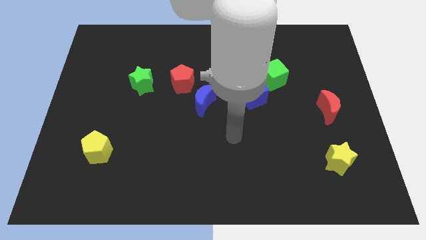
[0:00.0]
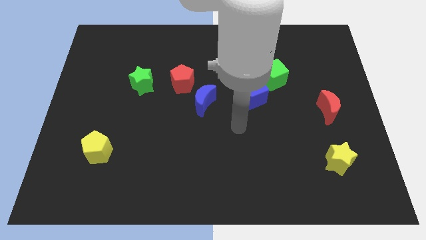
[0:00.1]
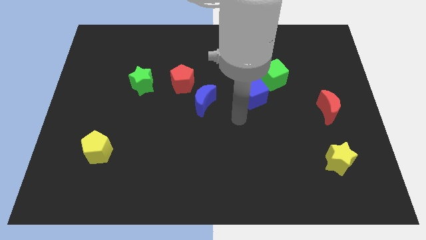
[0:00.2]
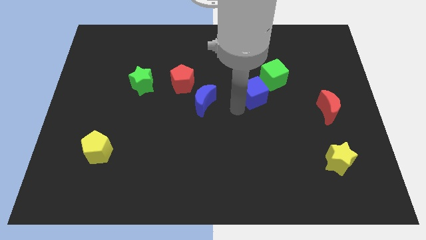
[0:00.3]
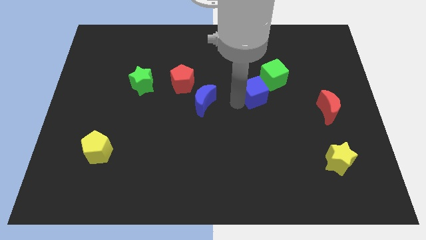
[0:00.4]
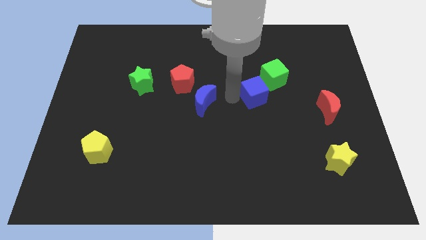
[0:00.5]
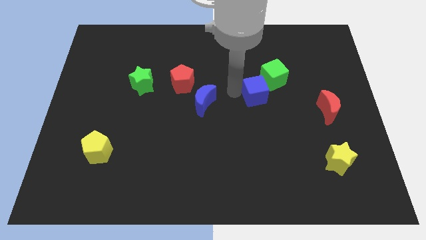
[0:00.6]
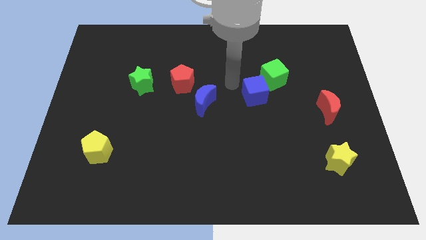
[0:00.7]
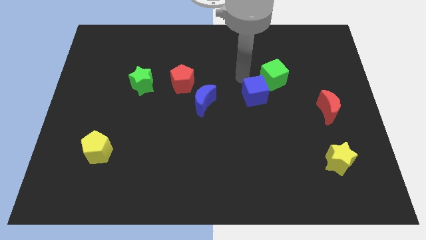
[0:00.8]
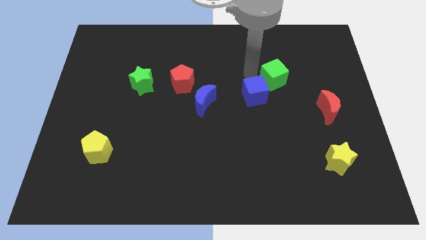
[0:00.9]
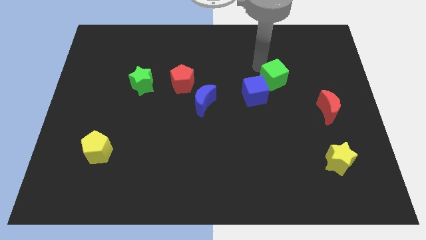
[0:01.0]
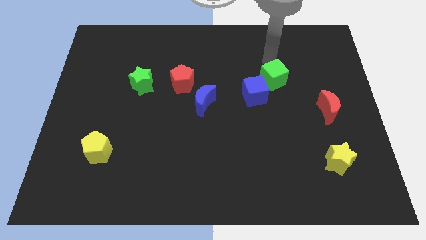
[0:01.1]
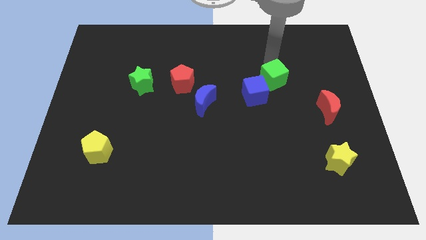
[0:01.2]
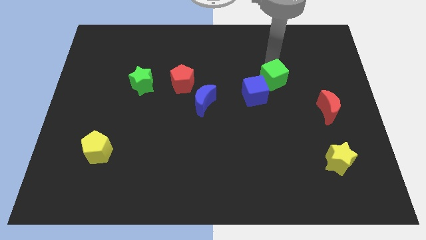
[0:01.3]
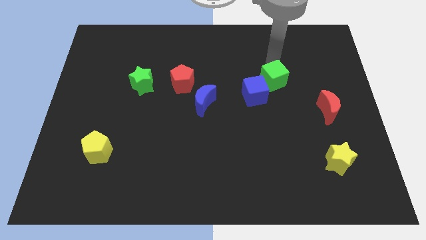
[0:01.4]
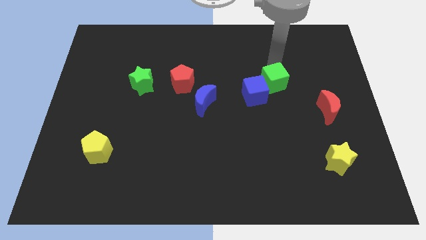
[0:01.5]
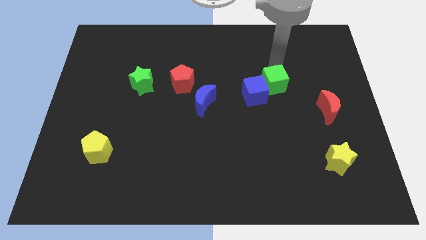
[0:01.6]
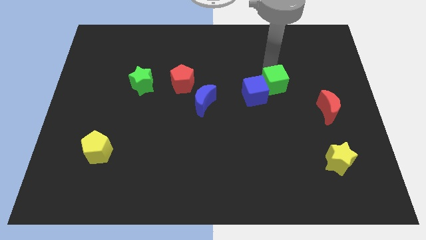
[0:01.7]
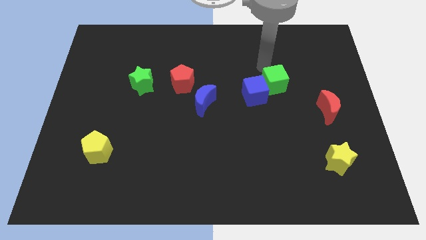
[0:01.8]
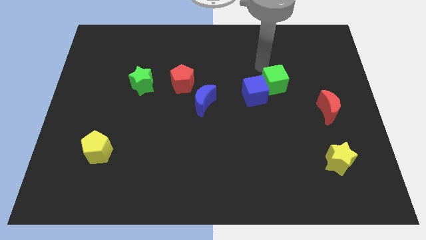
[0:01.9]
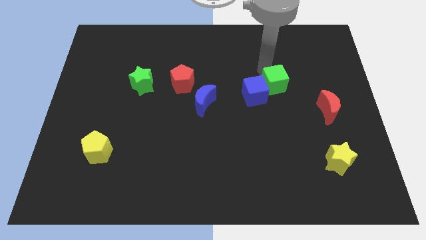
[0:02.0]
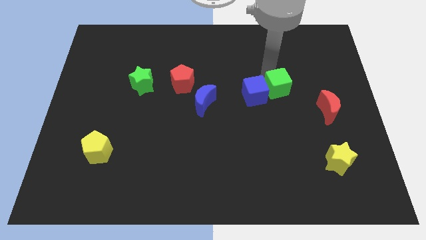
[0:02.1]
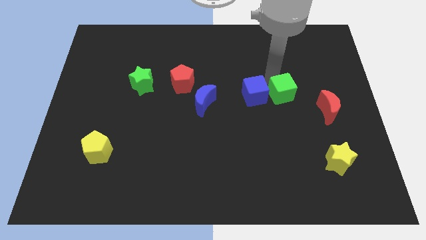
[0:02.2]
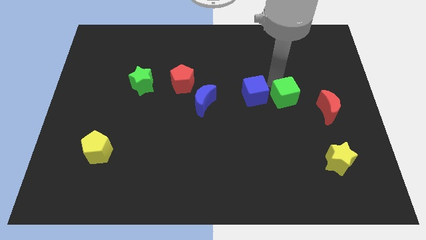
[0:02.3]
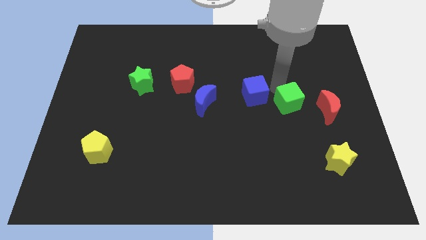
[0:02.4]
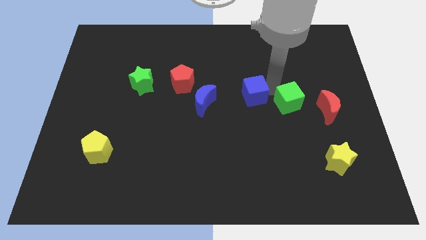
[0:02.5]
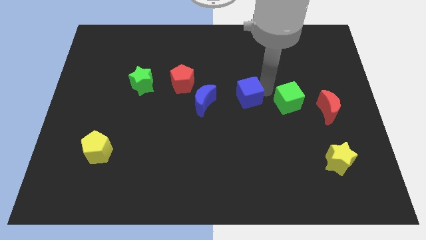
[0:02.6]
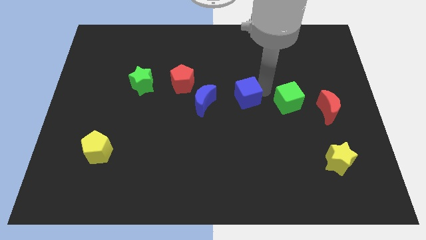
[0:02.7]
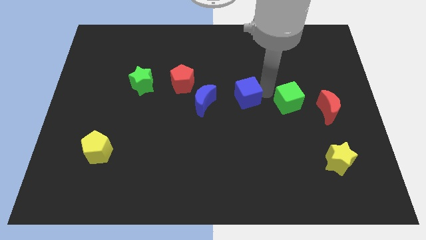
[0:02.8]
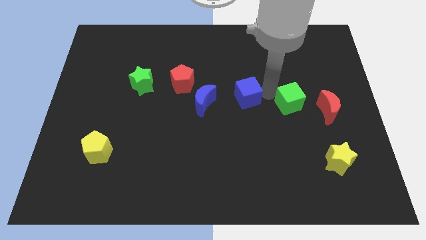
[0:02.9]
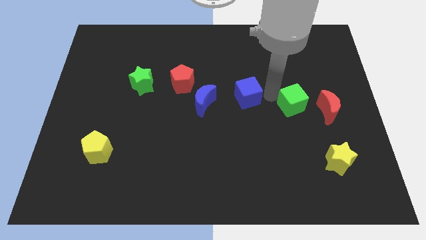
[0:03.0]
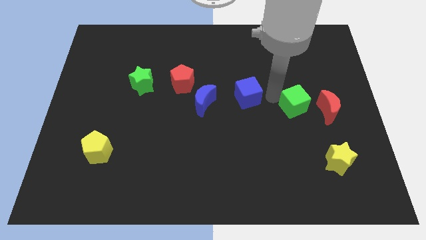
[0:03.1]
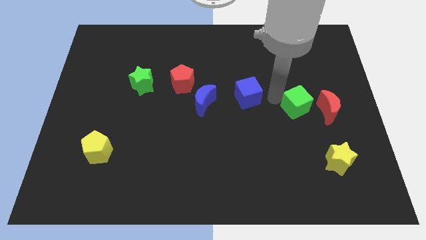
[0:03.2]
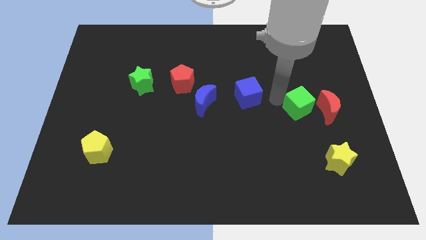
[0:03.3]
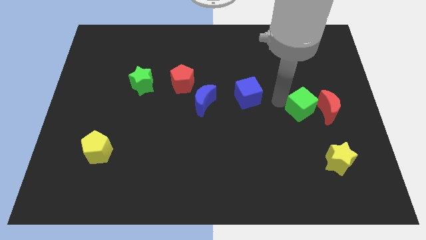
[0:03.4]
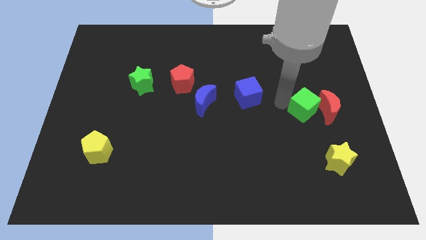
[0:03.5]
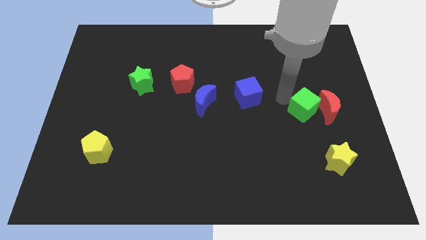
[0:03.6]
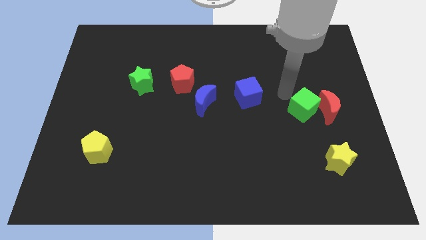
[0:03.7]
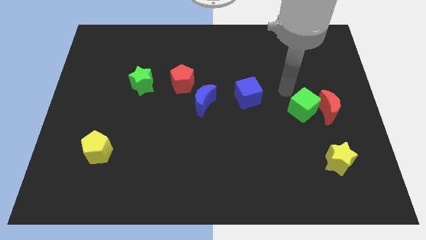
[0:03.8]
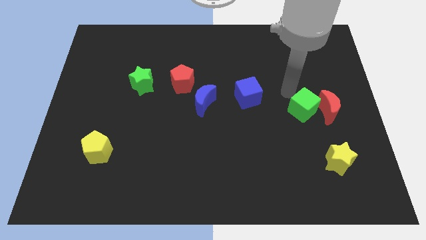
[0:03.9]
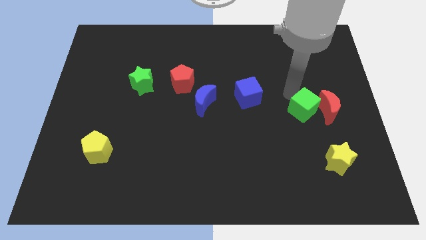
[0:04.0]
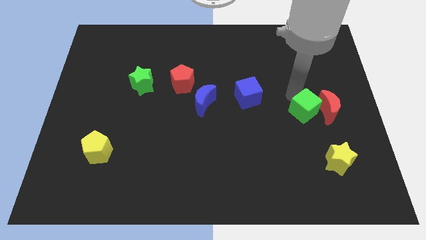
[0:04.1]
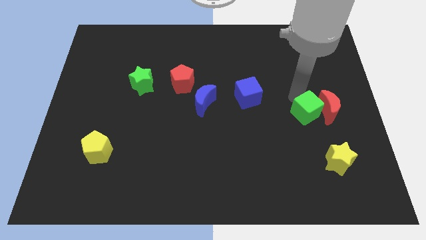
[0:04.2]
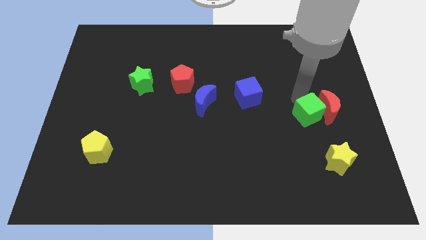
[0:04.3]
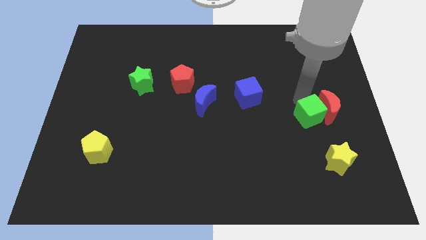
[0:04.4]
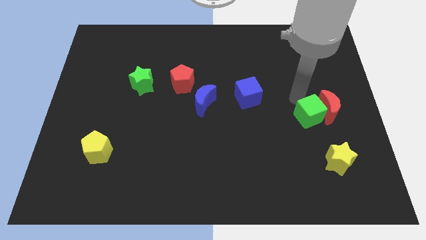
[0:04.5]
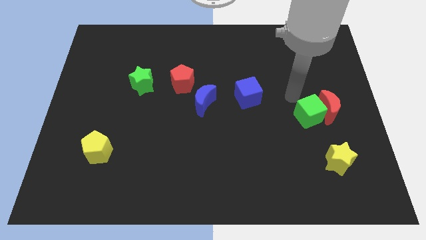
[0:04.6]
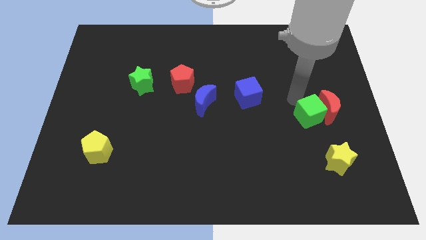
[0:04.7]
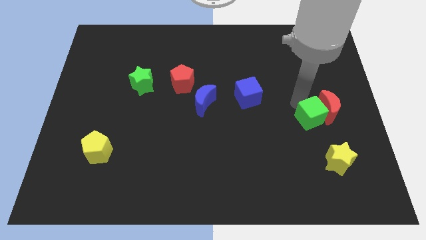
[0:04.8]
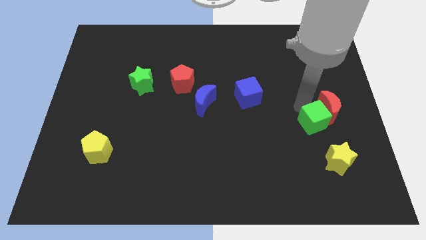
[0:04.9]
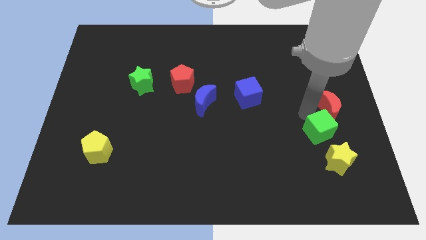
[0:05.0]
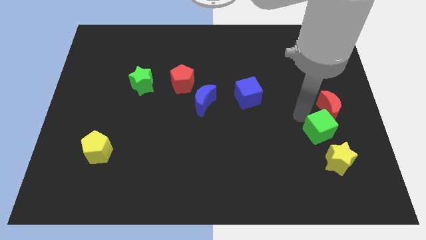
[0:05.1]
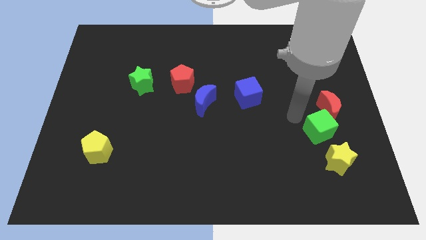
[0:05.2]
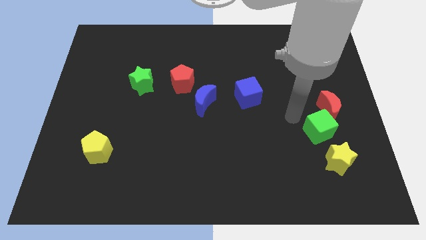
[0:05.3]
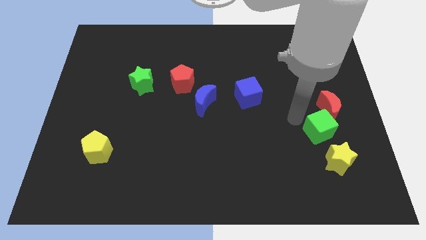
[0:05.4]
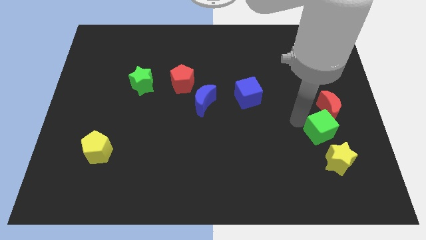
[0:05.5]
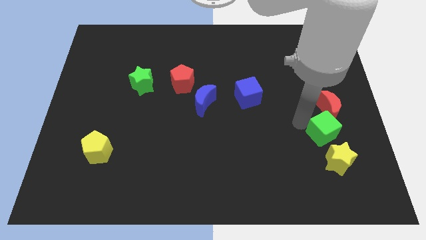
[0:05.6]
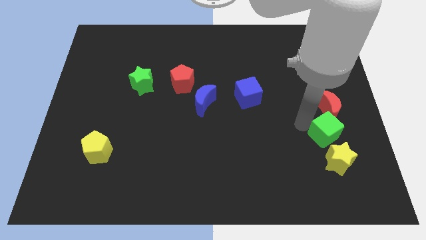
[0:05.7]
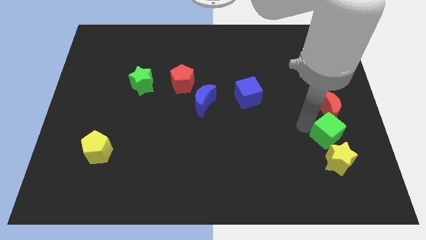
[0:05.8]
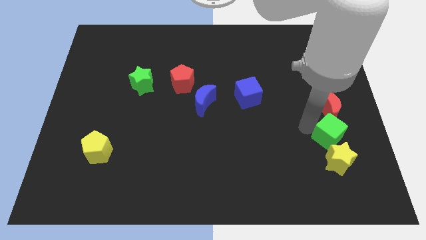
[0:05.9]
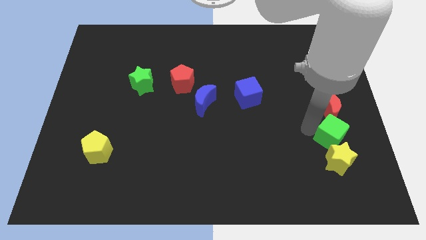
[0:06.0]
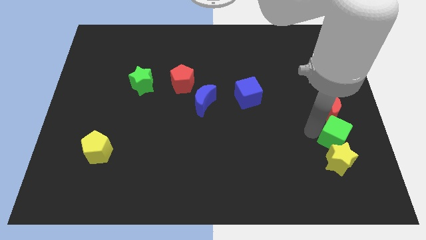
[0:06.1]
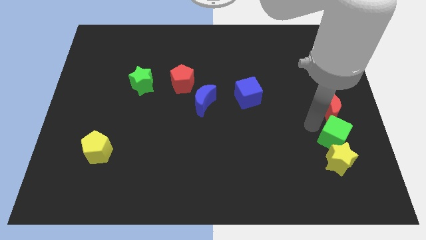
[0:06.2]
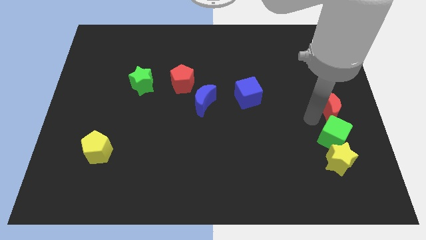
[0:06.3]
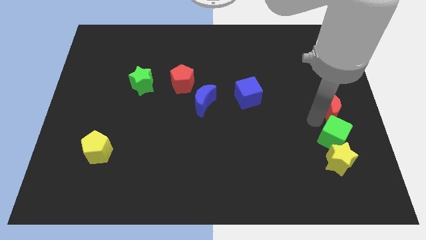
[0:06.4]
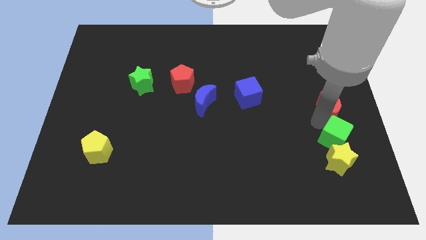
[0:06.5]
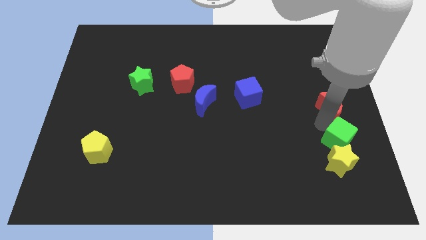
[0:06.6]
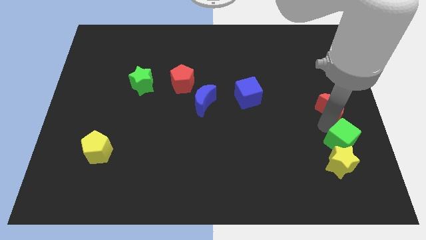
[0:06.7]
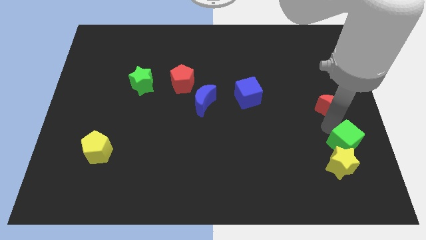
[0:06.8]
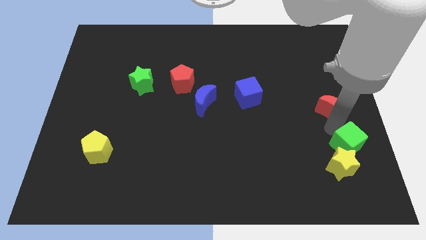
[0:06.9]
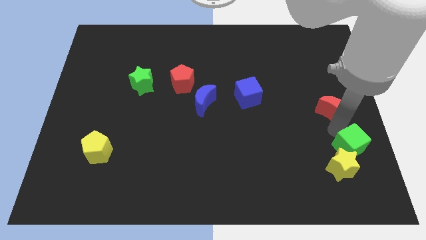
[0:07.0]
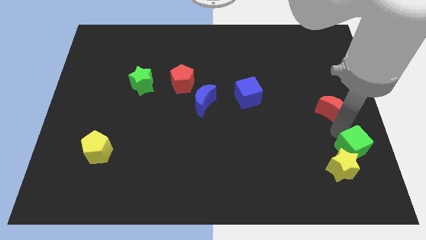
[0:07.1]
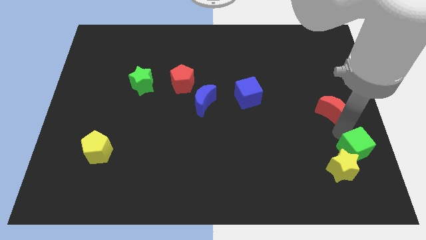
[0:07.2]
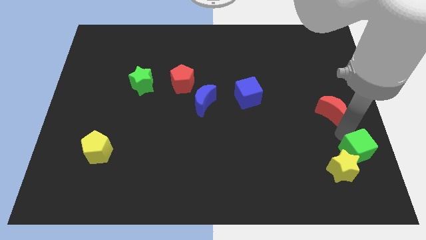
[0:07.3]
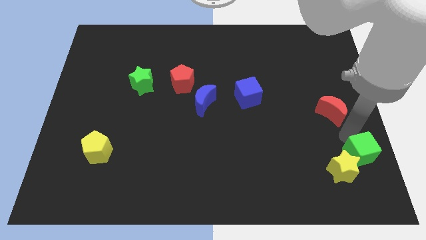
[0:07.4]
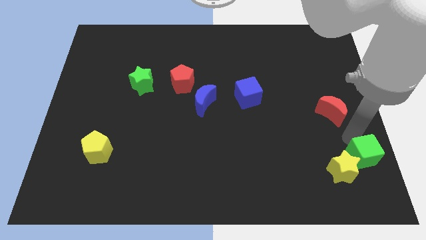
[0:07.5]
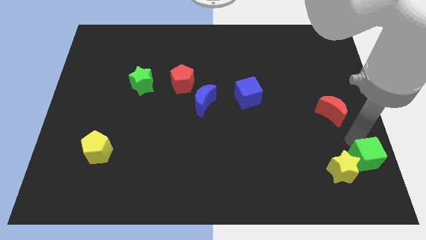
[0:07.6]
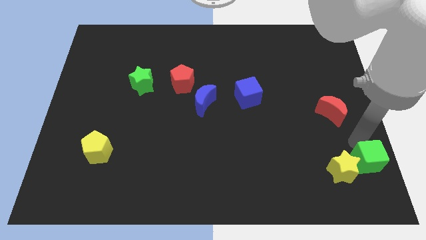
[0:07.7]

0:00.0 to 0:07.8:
slide the green cube to the bottom right of the board
